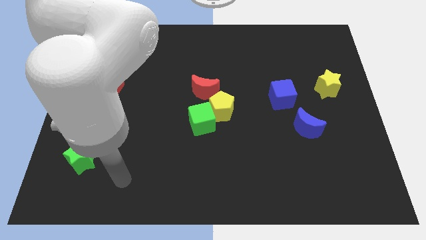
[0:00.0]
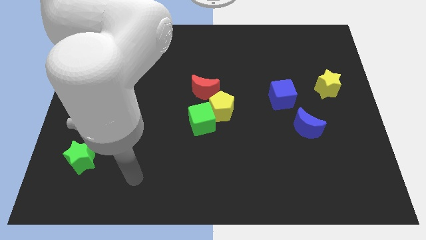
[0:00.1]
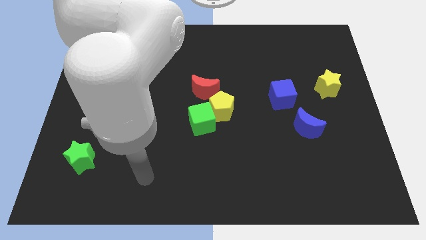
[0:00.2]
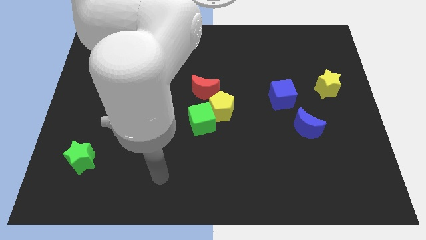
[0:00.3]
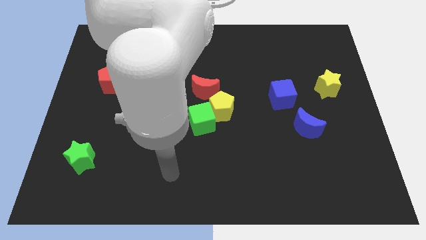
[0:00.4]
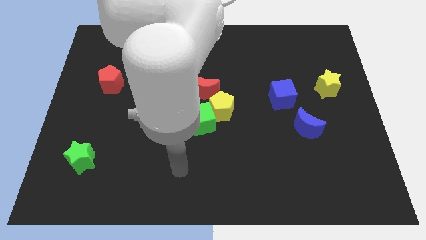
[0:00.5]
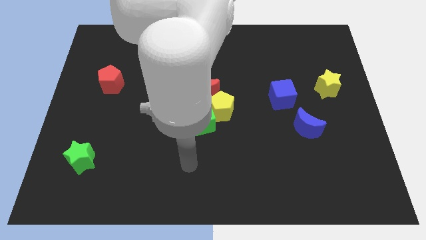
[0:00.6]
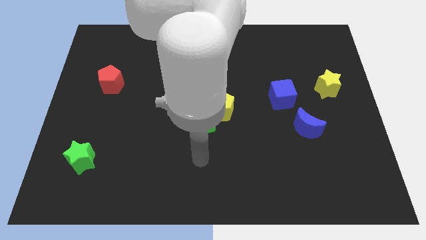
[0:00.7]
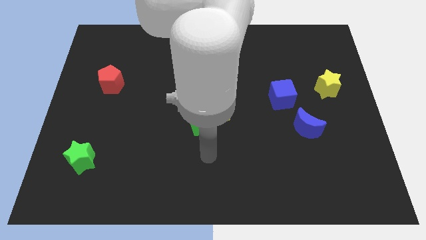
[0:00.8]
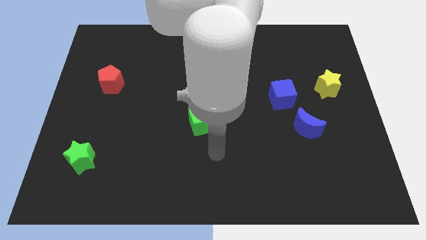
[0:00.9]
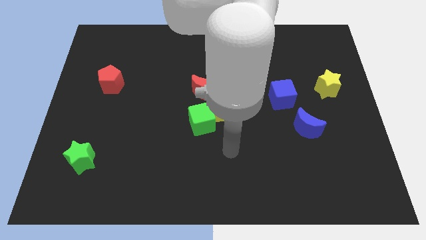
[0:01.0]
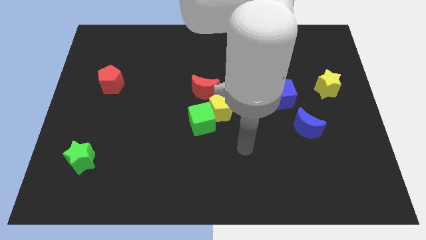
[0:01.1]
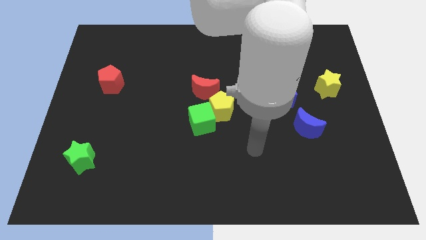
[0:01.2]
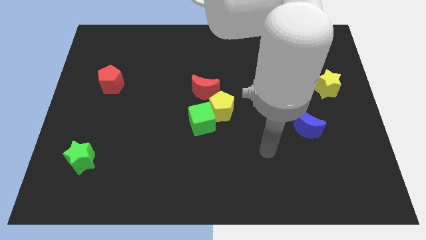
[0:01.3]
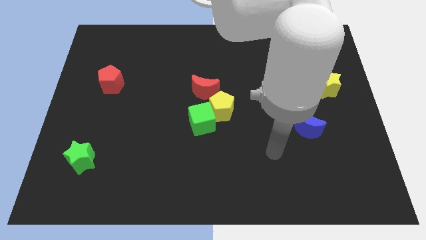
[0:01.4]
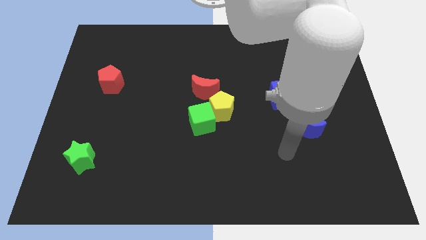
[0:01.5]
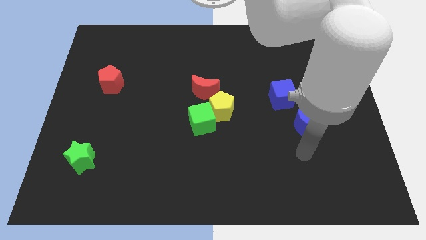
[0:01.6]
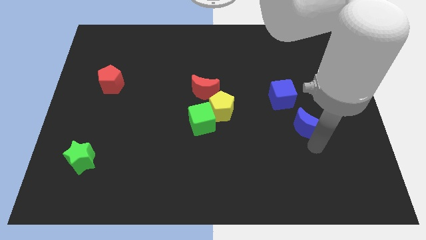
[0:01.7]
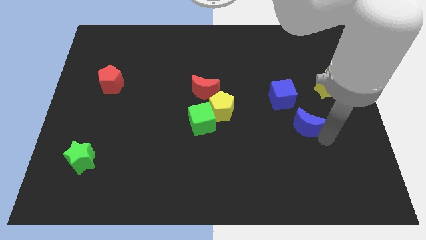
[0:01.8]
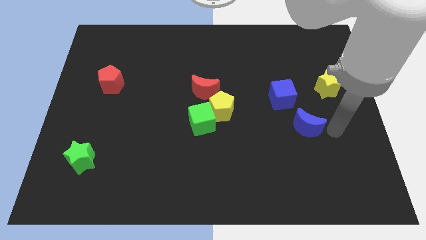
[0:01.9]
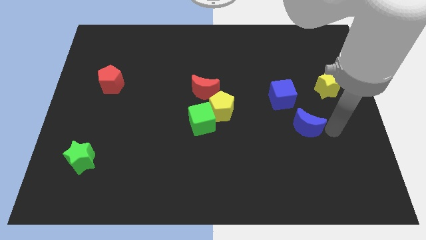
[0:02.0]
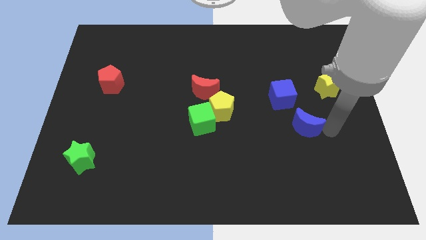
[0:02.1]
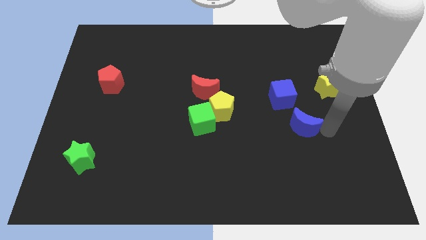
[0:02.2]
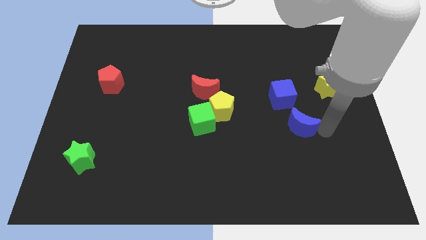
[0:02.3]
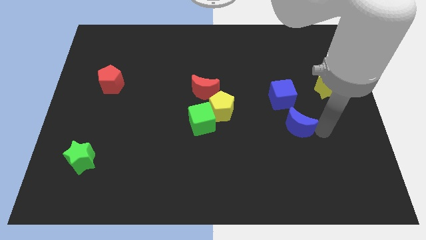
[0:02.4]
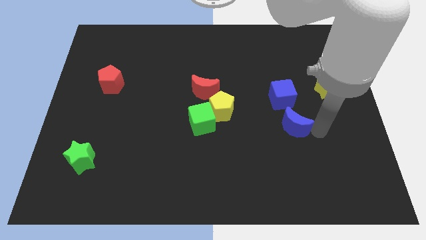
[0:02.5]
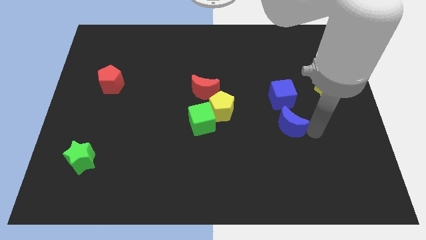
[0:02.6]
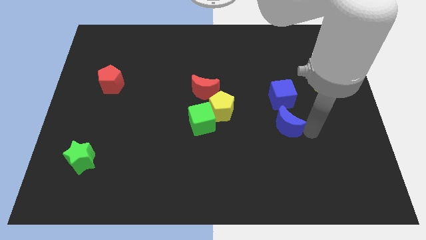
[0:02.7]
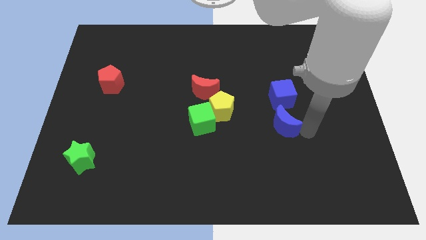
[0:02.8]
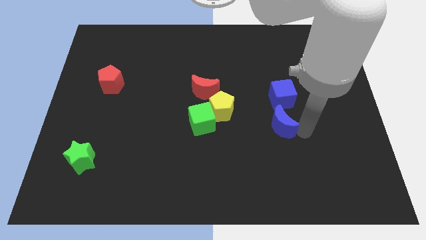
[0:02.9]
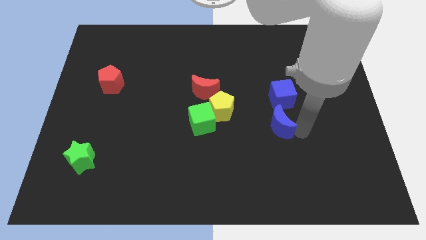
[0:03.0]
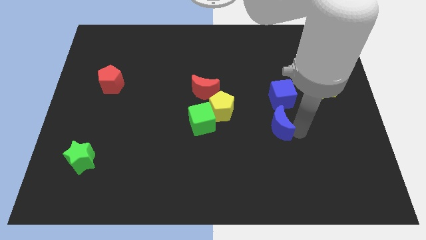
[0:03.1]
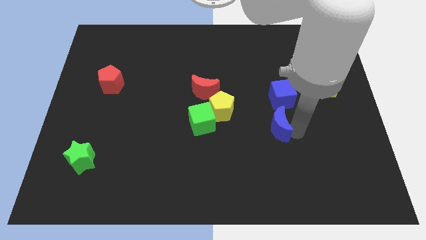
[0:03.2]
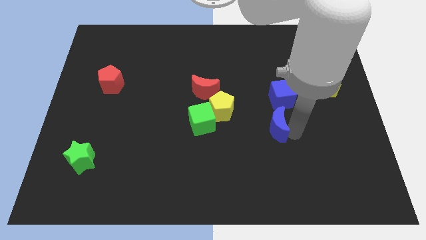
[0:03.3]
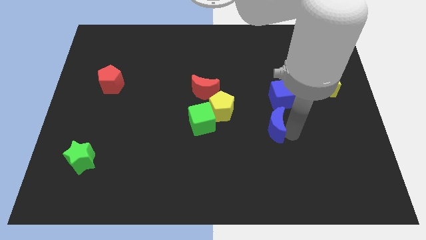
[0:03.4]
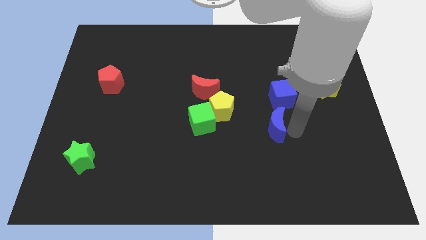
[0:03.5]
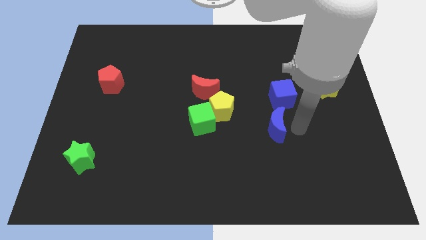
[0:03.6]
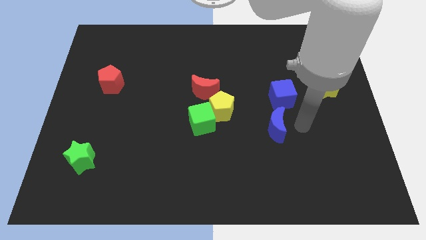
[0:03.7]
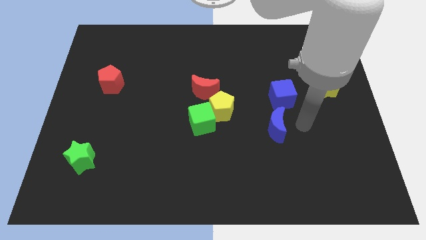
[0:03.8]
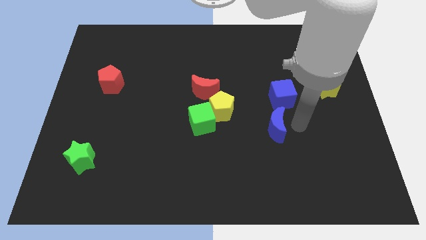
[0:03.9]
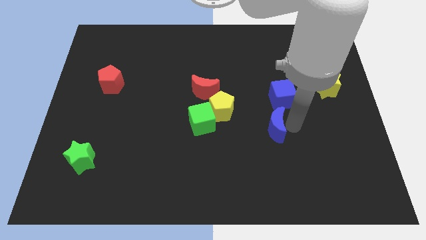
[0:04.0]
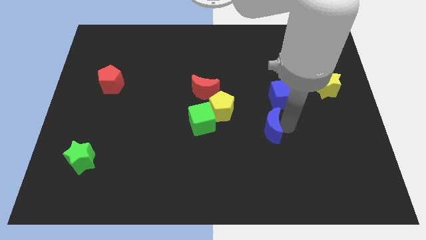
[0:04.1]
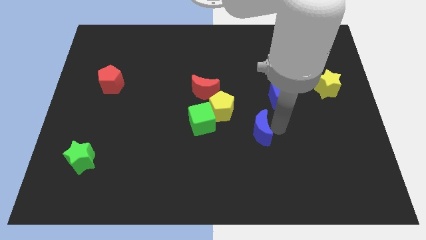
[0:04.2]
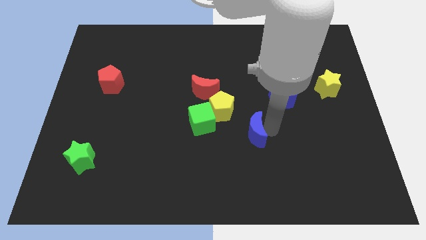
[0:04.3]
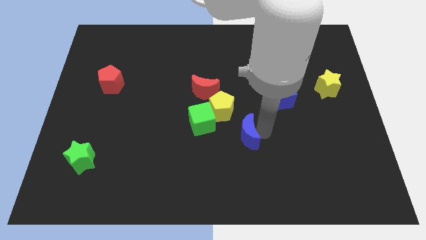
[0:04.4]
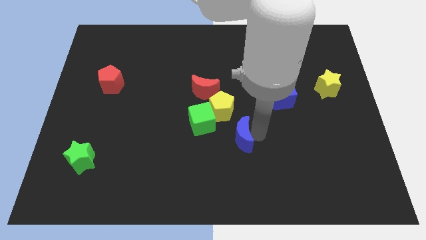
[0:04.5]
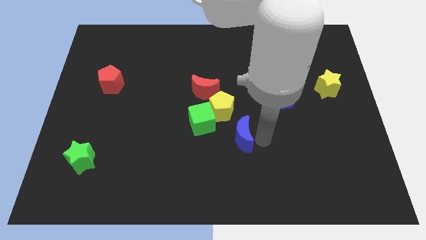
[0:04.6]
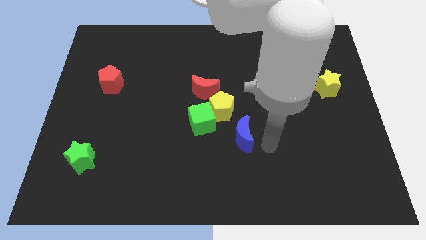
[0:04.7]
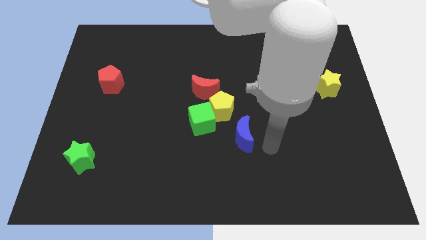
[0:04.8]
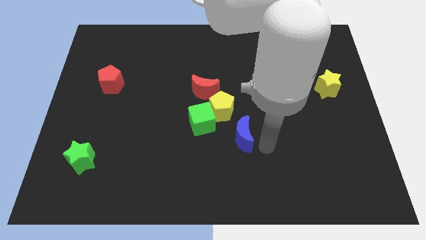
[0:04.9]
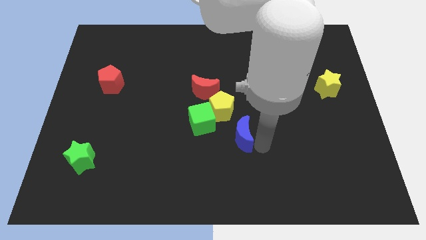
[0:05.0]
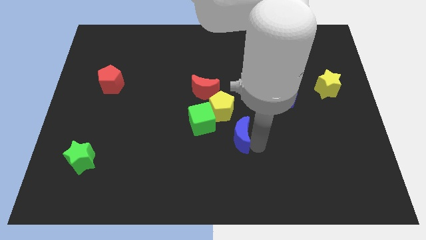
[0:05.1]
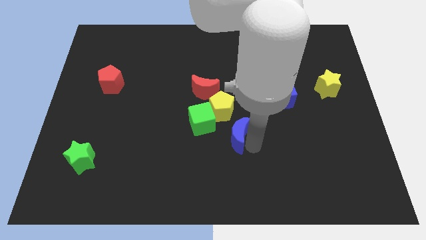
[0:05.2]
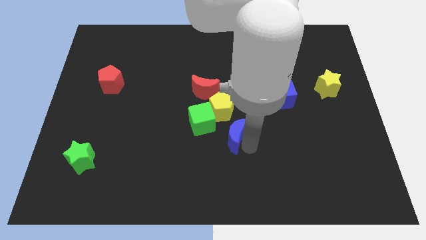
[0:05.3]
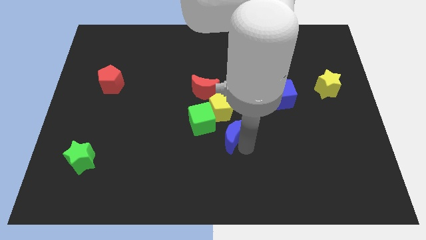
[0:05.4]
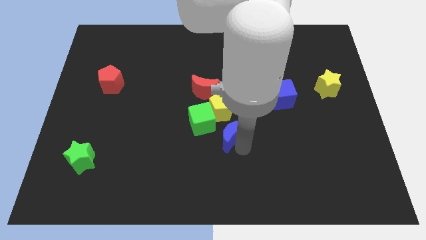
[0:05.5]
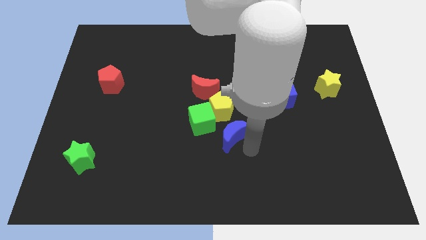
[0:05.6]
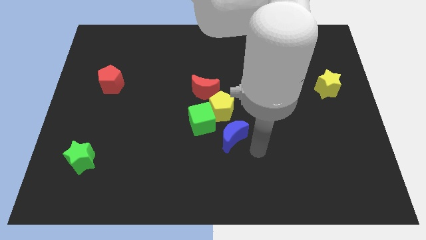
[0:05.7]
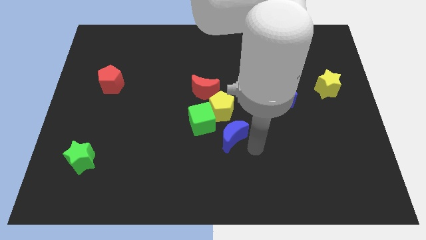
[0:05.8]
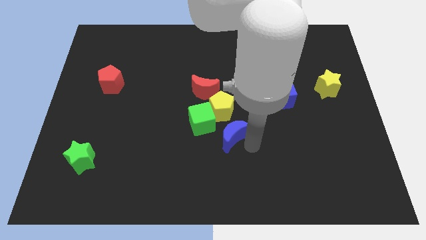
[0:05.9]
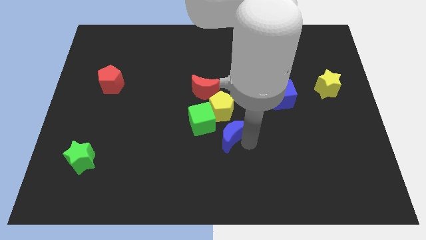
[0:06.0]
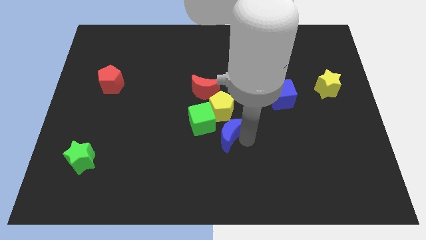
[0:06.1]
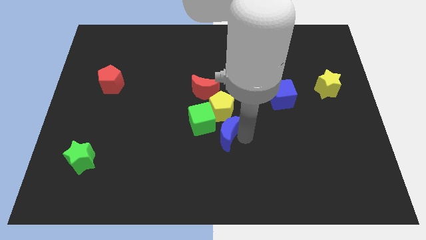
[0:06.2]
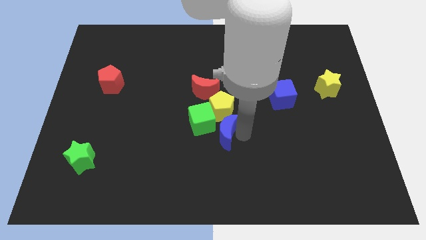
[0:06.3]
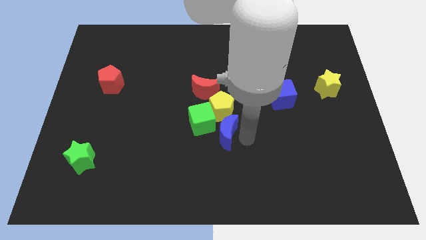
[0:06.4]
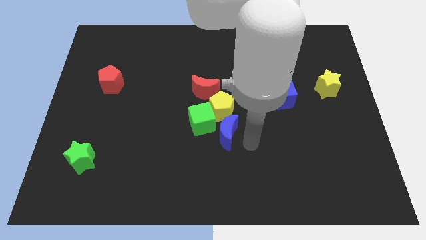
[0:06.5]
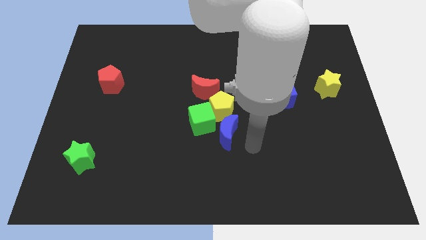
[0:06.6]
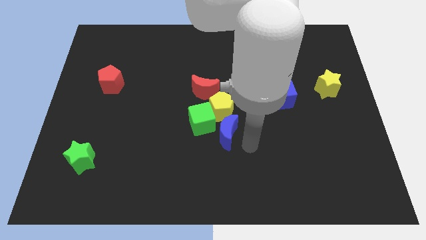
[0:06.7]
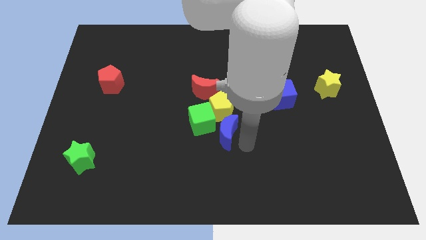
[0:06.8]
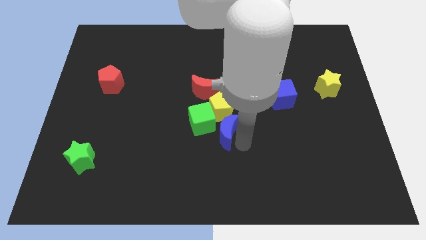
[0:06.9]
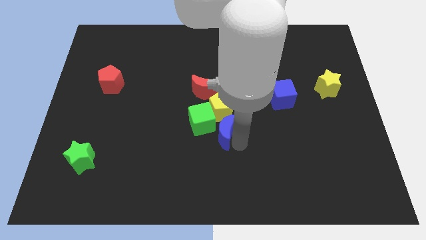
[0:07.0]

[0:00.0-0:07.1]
put the blue moon to the green cube
